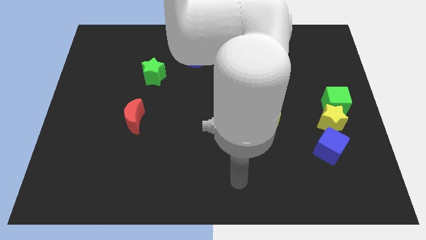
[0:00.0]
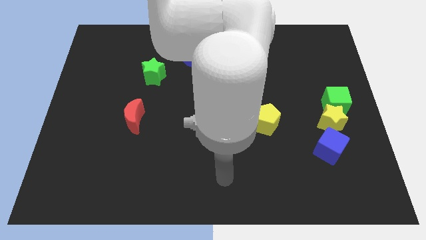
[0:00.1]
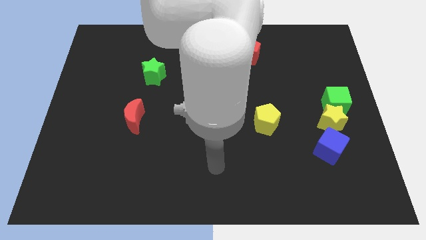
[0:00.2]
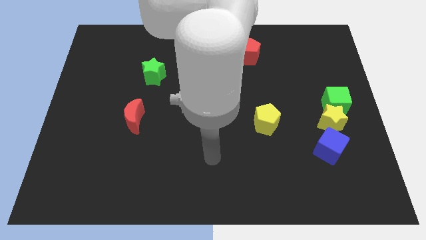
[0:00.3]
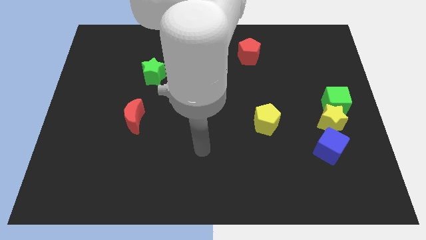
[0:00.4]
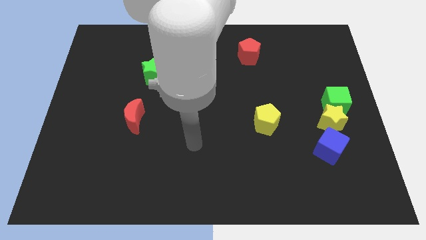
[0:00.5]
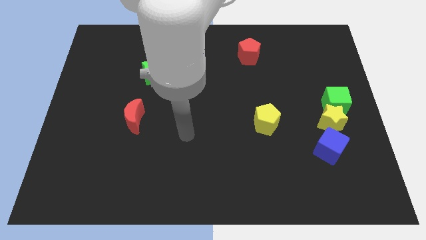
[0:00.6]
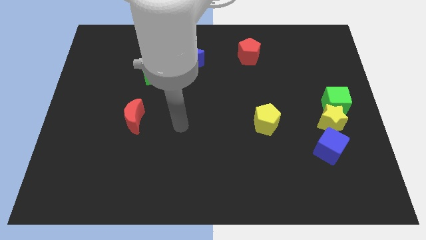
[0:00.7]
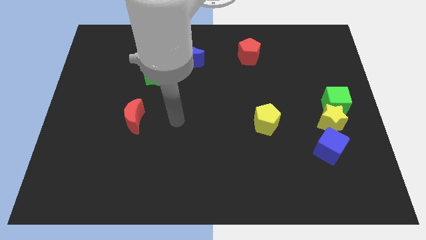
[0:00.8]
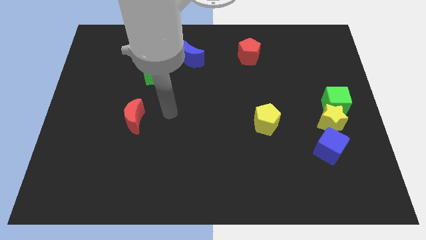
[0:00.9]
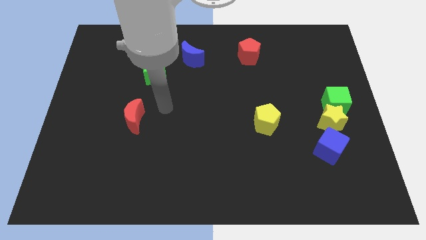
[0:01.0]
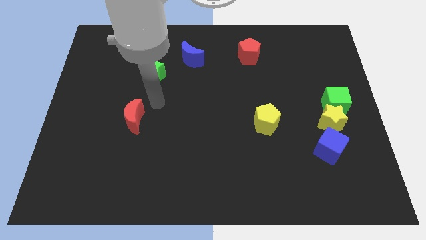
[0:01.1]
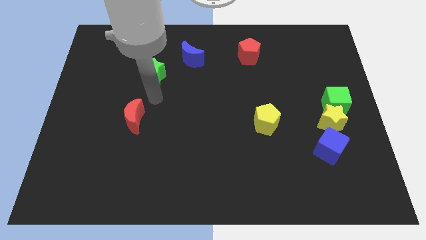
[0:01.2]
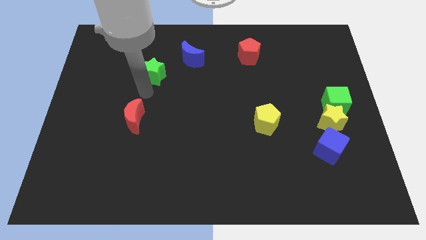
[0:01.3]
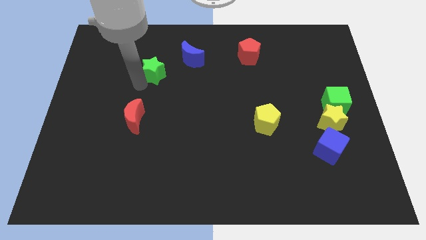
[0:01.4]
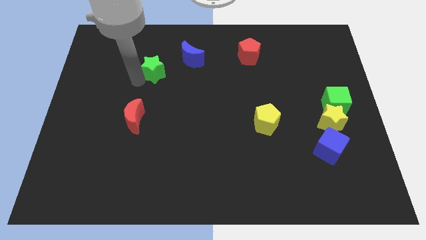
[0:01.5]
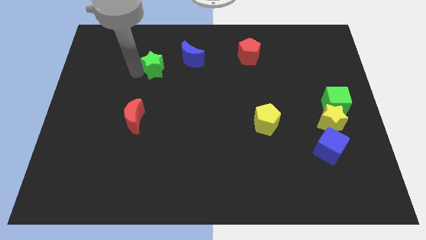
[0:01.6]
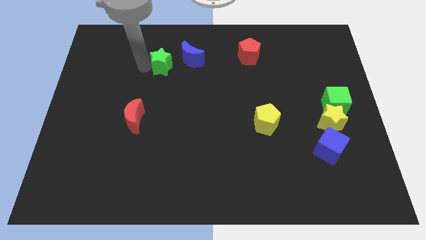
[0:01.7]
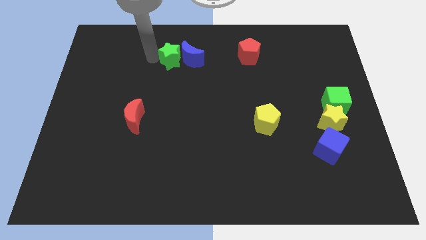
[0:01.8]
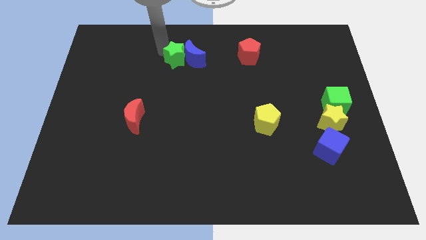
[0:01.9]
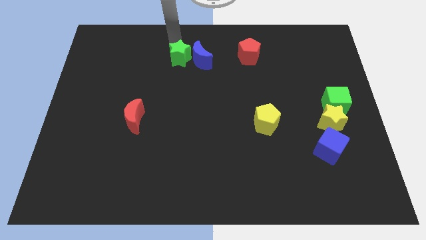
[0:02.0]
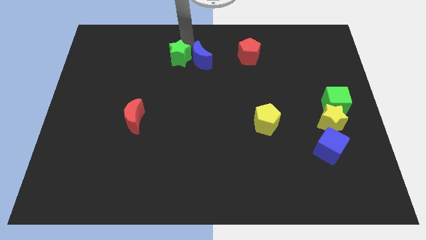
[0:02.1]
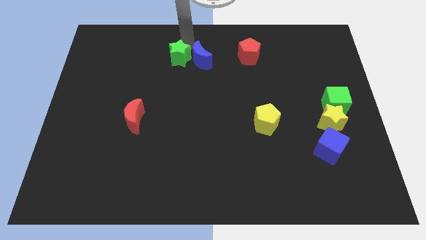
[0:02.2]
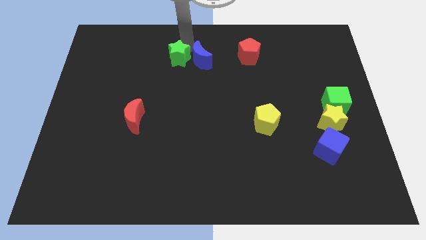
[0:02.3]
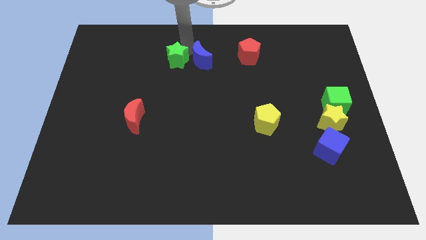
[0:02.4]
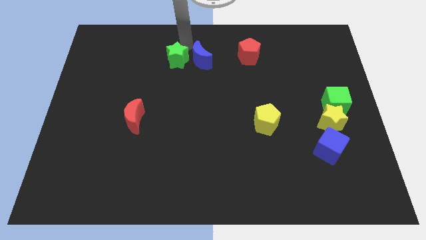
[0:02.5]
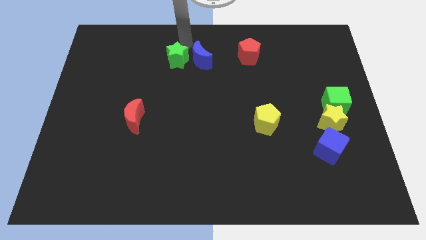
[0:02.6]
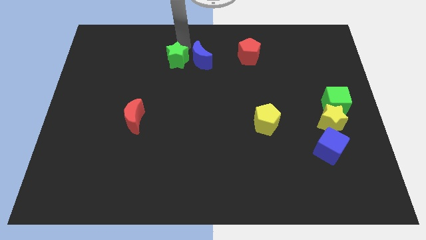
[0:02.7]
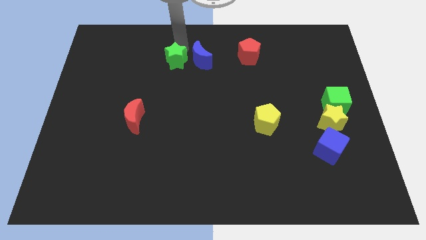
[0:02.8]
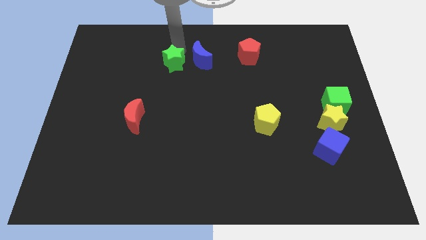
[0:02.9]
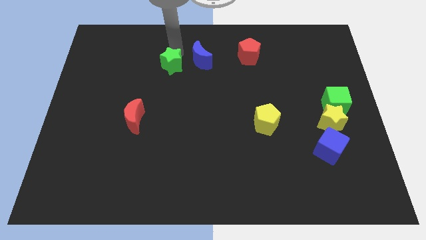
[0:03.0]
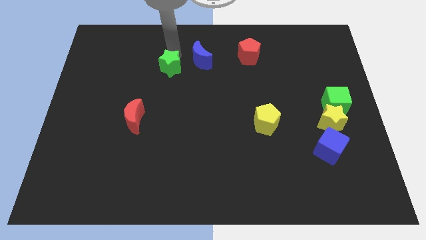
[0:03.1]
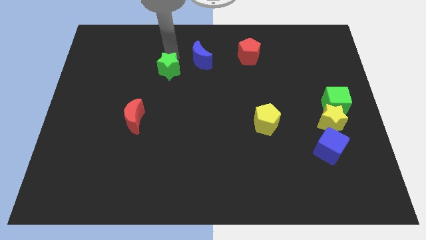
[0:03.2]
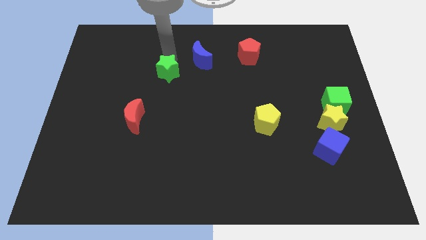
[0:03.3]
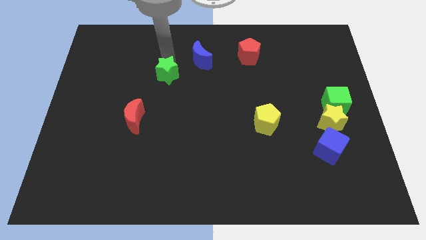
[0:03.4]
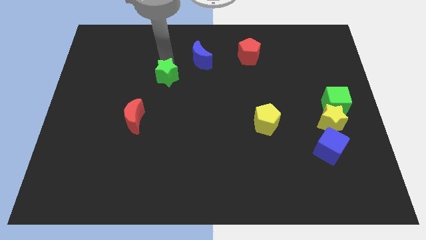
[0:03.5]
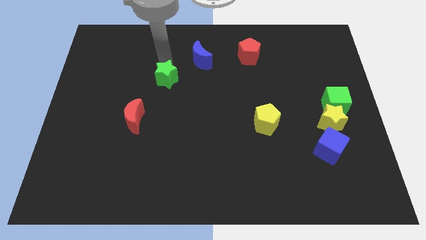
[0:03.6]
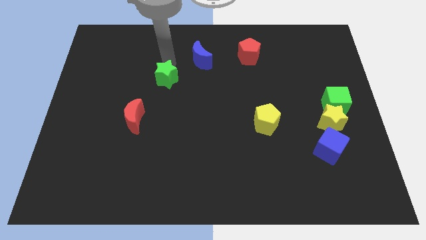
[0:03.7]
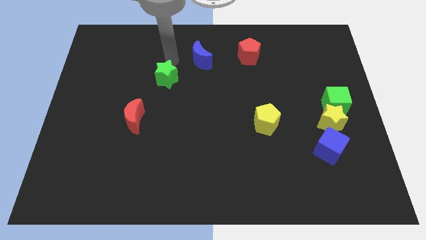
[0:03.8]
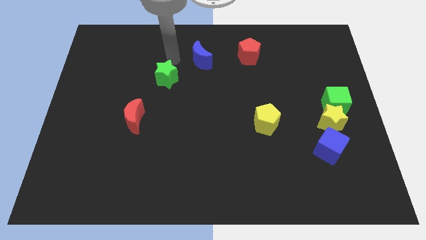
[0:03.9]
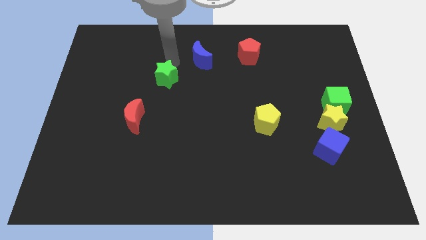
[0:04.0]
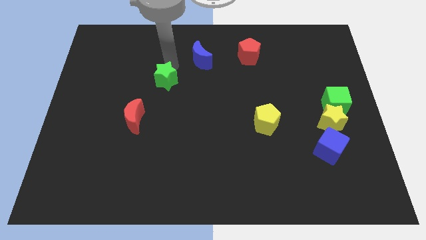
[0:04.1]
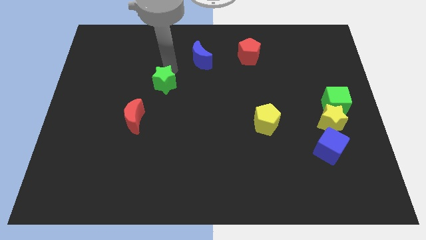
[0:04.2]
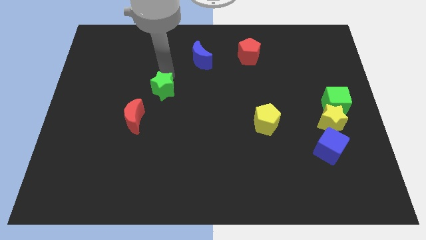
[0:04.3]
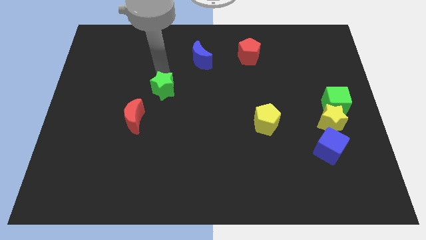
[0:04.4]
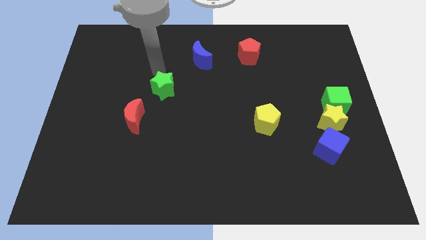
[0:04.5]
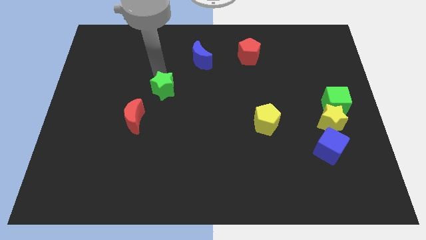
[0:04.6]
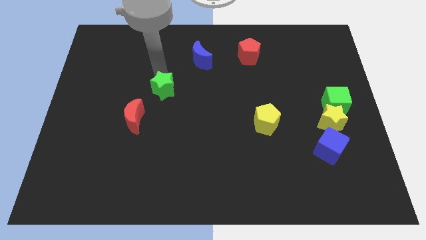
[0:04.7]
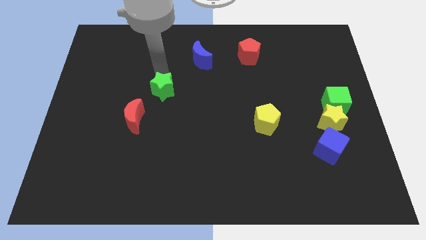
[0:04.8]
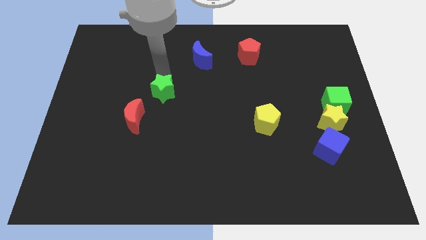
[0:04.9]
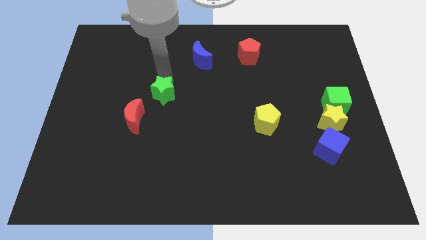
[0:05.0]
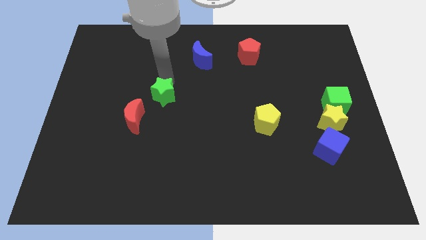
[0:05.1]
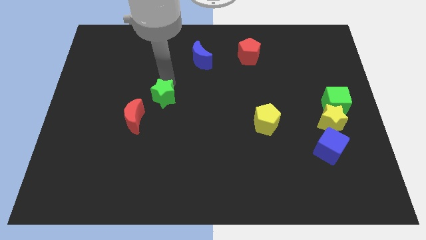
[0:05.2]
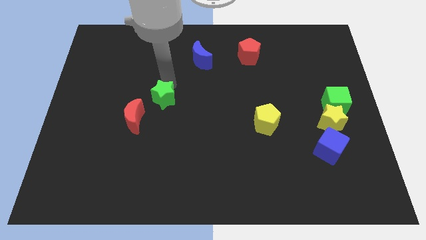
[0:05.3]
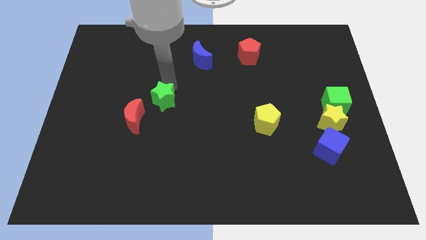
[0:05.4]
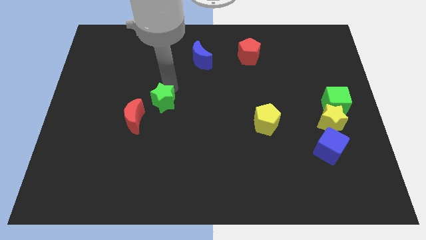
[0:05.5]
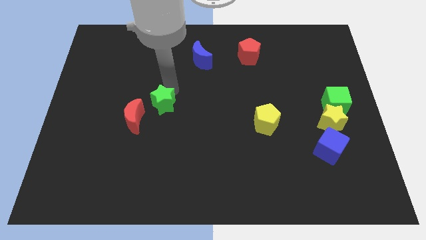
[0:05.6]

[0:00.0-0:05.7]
push the green star right of the red moon

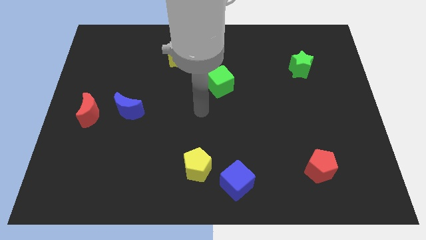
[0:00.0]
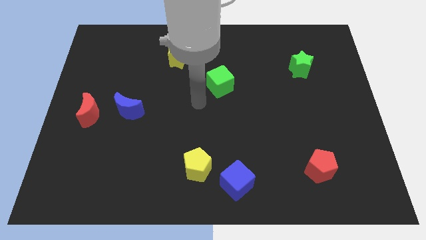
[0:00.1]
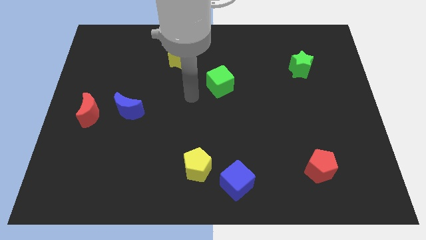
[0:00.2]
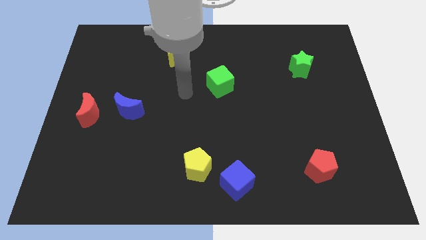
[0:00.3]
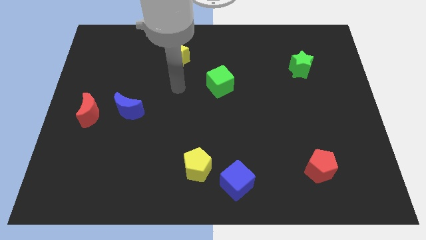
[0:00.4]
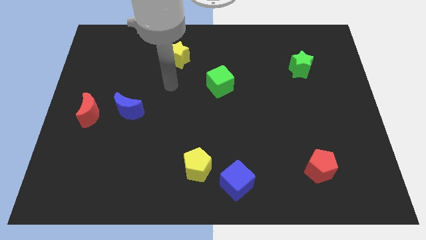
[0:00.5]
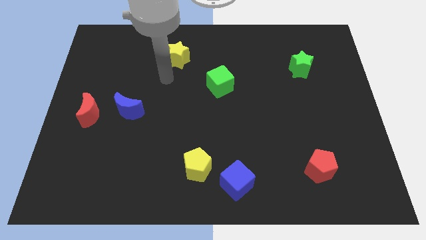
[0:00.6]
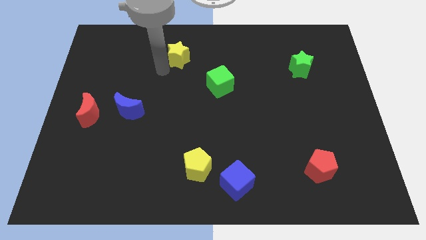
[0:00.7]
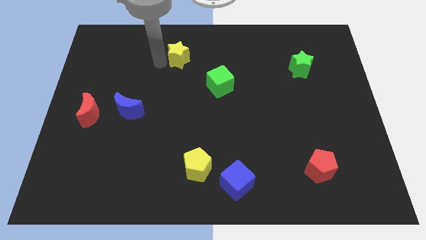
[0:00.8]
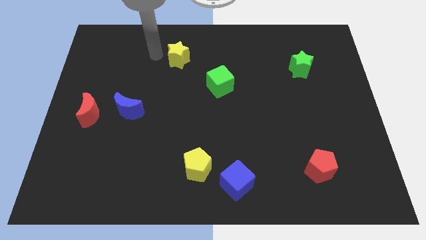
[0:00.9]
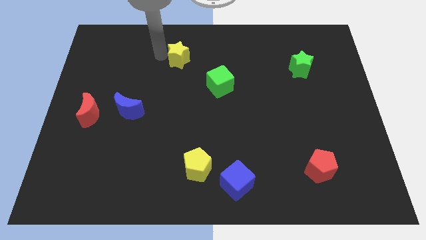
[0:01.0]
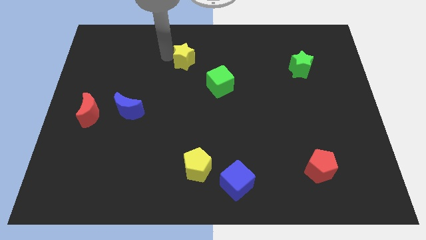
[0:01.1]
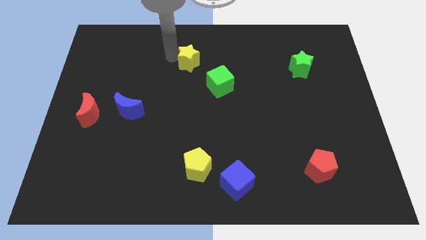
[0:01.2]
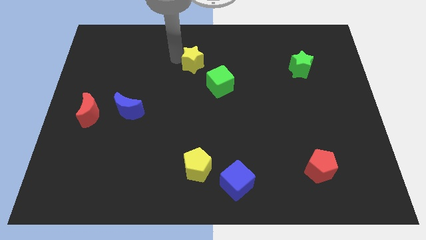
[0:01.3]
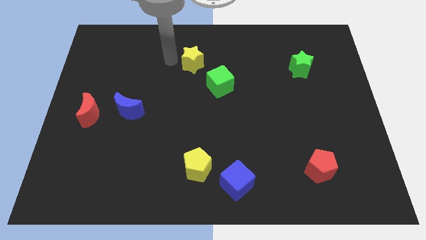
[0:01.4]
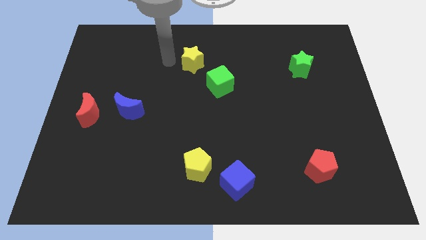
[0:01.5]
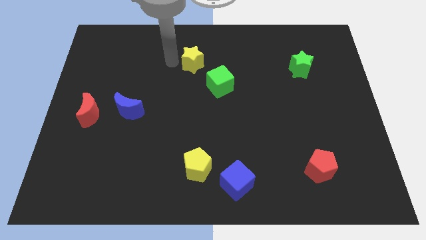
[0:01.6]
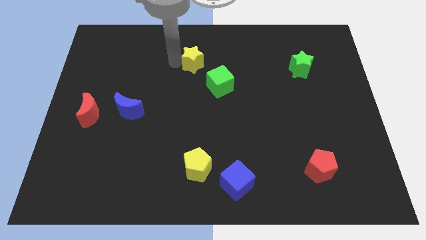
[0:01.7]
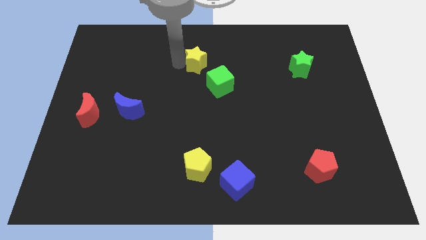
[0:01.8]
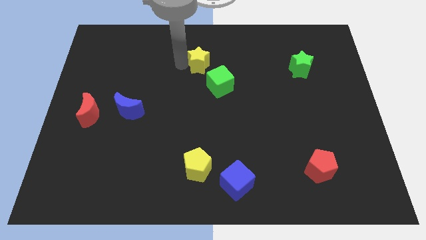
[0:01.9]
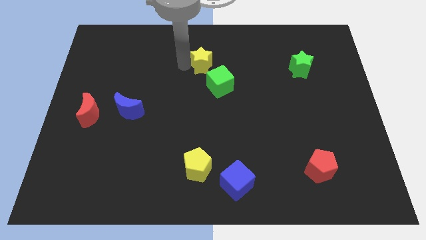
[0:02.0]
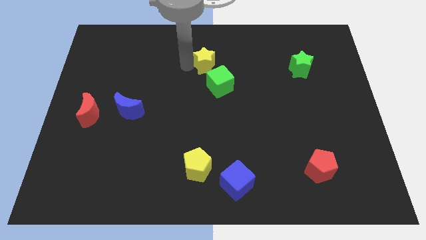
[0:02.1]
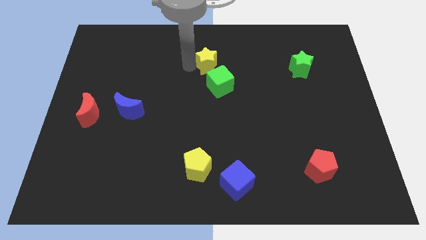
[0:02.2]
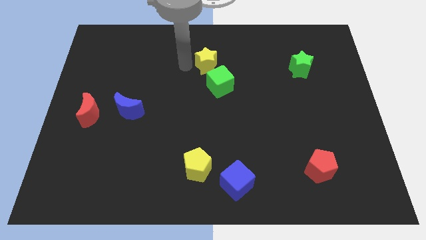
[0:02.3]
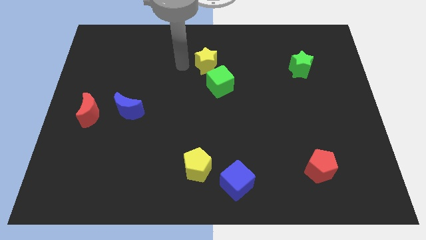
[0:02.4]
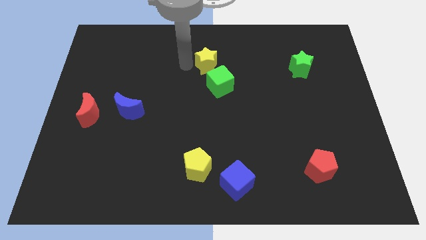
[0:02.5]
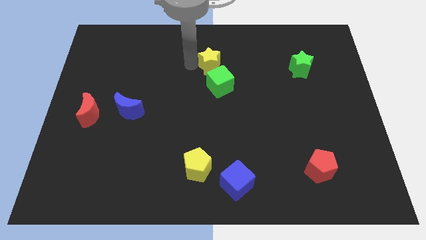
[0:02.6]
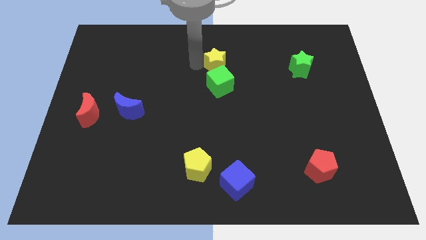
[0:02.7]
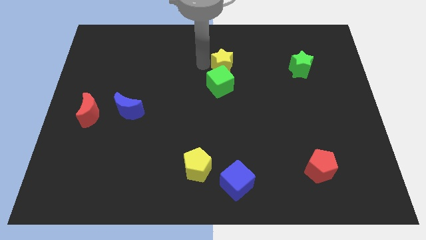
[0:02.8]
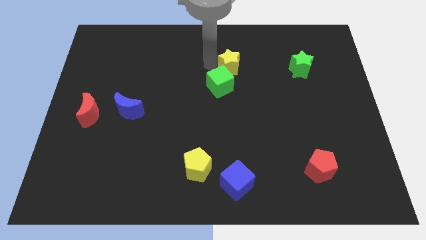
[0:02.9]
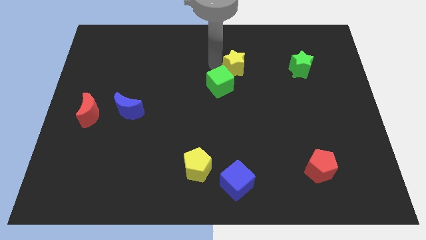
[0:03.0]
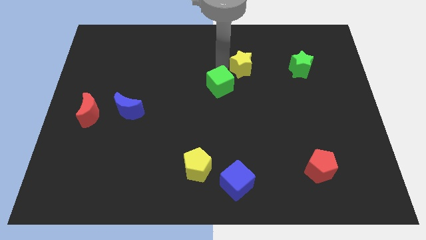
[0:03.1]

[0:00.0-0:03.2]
put the yellow star left of the green star
